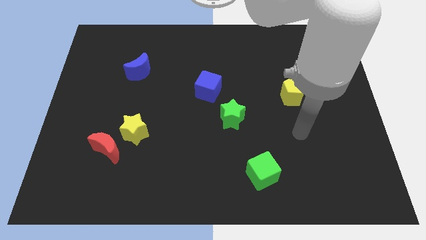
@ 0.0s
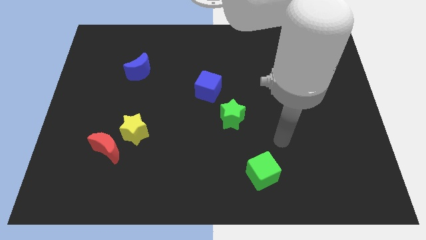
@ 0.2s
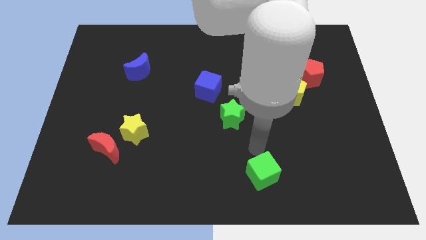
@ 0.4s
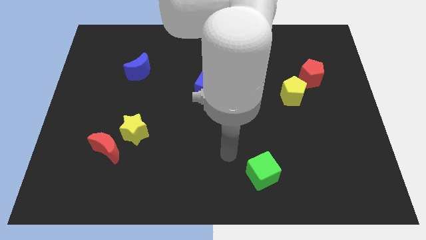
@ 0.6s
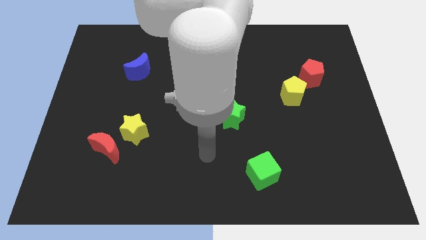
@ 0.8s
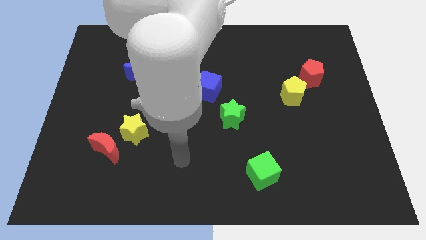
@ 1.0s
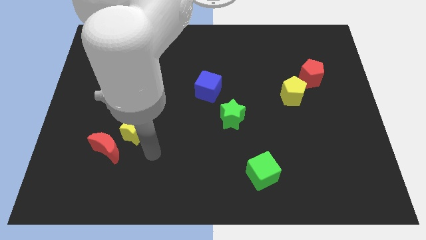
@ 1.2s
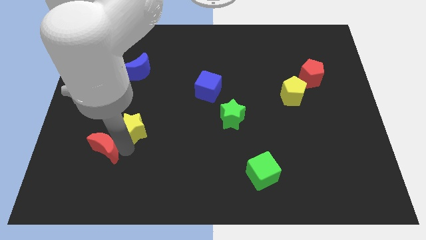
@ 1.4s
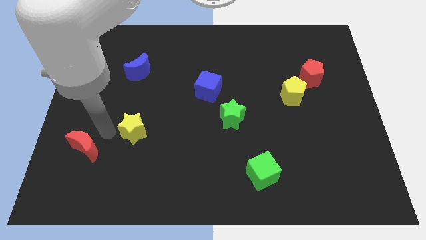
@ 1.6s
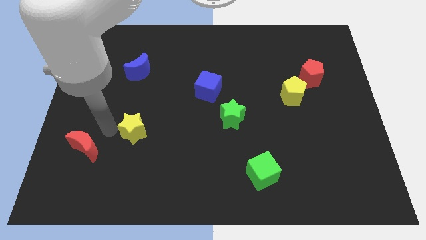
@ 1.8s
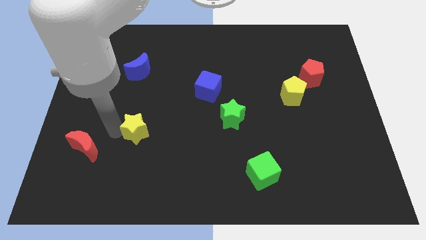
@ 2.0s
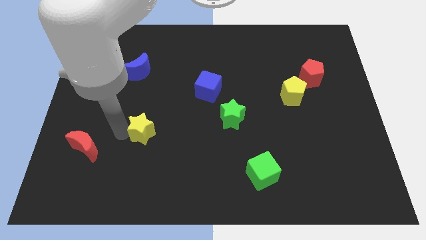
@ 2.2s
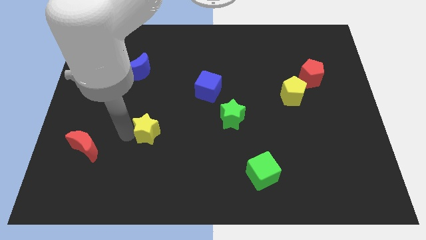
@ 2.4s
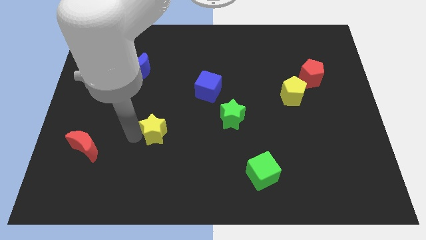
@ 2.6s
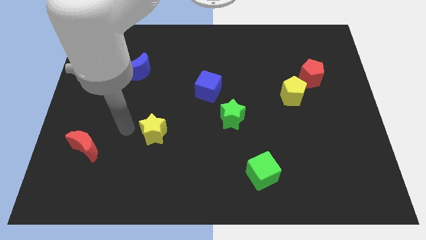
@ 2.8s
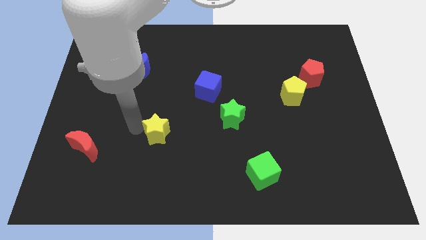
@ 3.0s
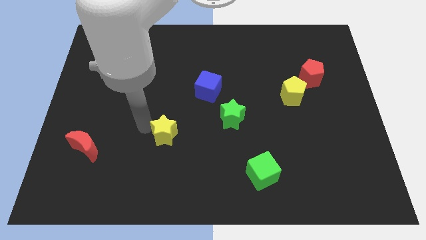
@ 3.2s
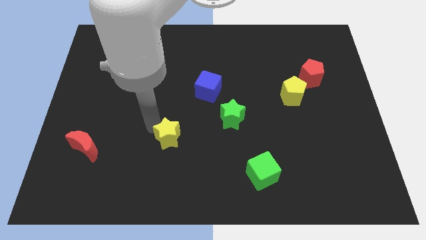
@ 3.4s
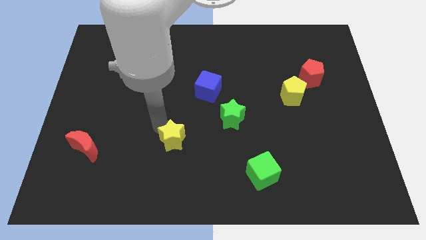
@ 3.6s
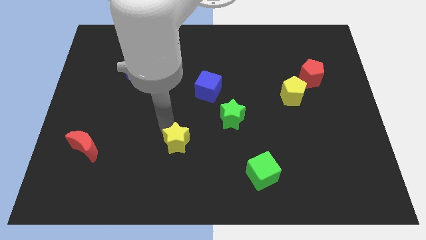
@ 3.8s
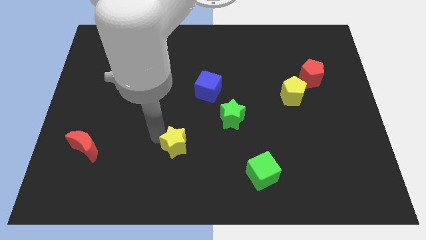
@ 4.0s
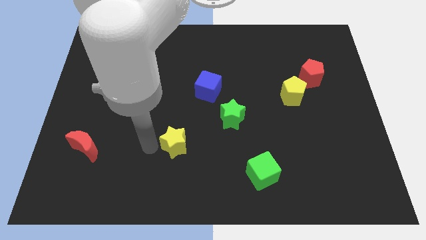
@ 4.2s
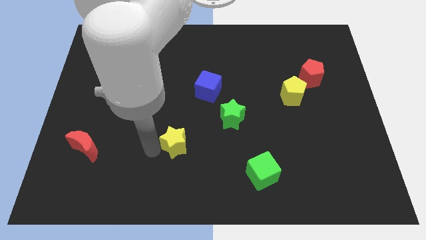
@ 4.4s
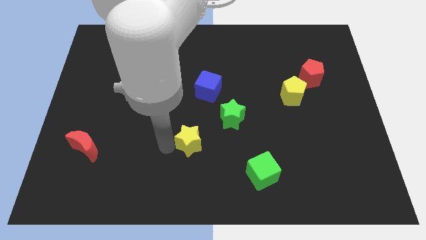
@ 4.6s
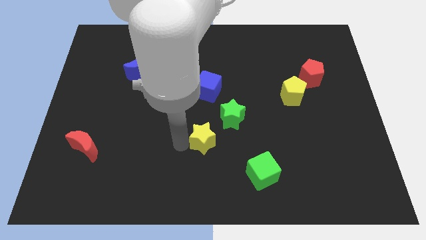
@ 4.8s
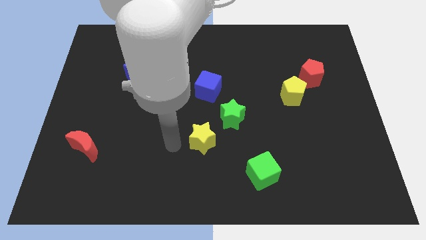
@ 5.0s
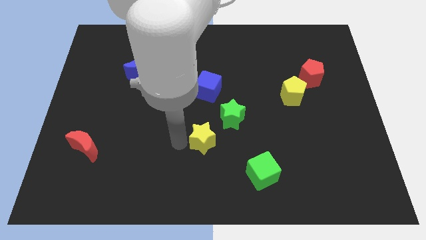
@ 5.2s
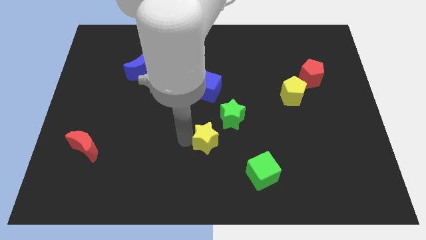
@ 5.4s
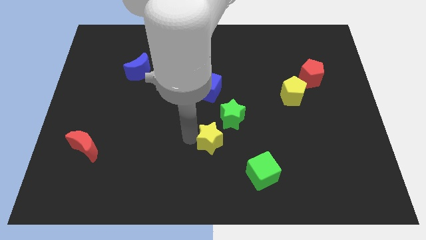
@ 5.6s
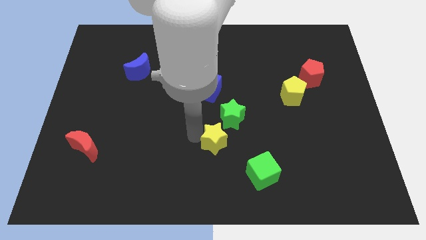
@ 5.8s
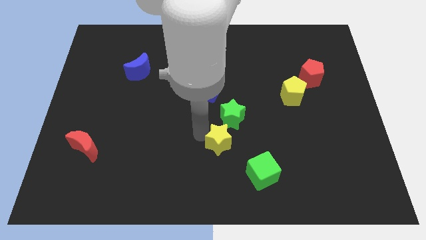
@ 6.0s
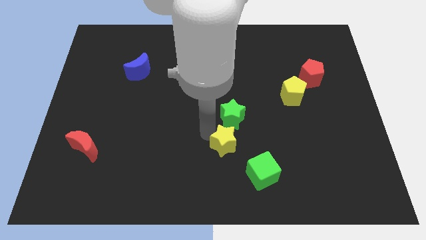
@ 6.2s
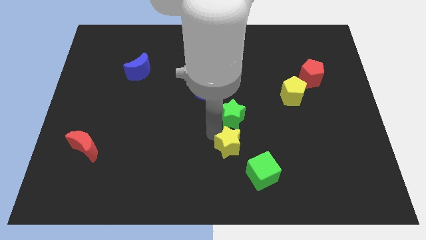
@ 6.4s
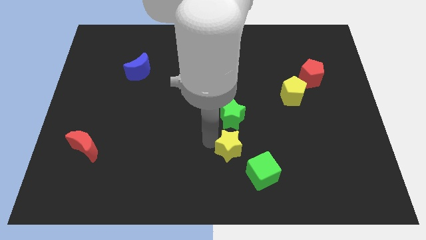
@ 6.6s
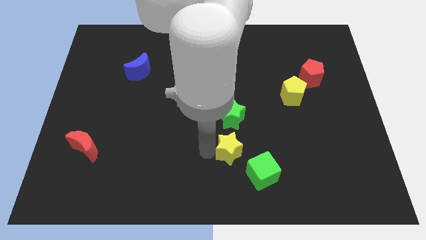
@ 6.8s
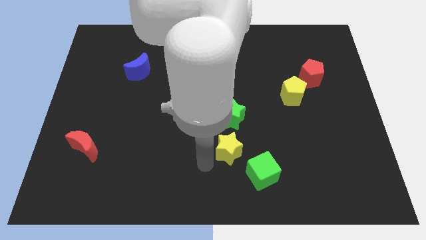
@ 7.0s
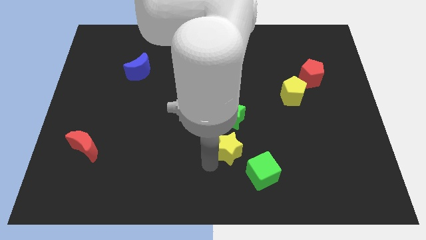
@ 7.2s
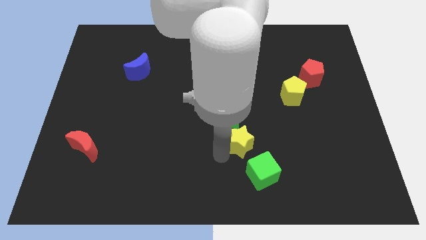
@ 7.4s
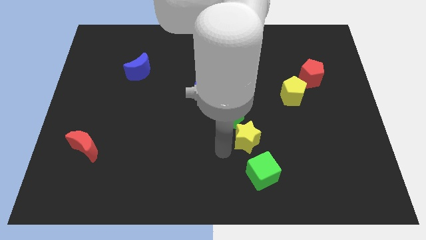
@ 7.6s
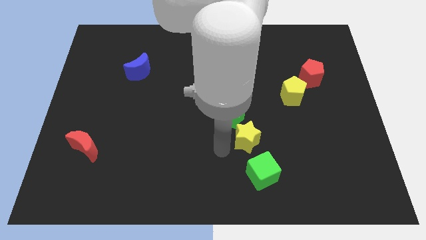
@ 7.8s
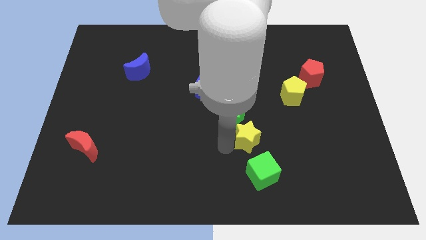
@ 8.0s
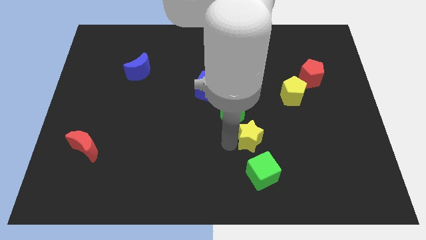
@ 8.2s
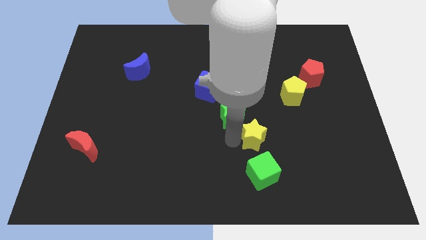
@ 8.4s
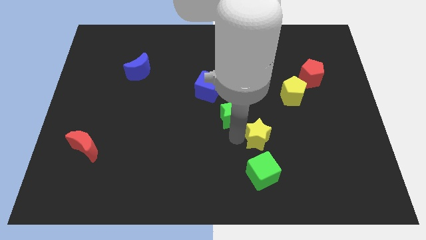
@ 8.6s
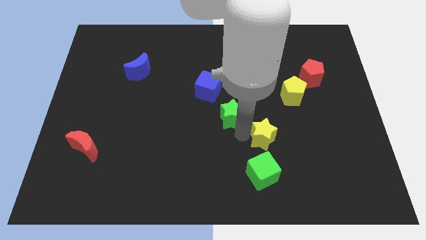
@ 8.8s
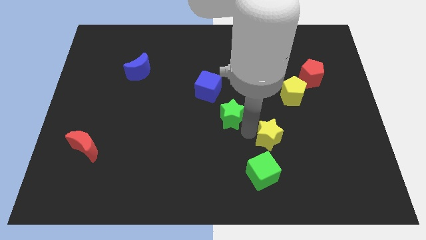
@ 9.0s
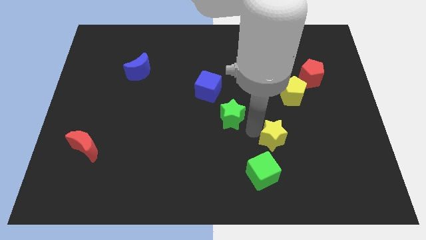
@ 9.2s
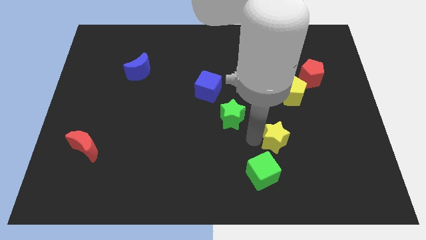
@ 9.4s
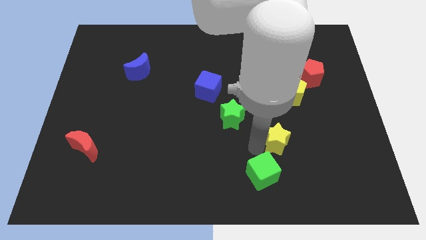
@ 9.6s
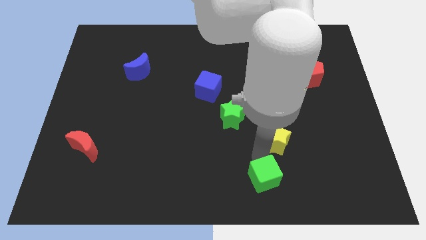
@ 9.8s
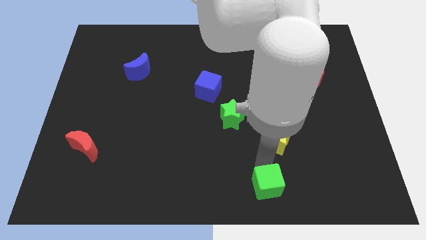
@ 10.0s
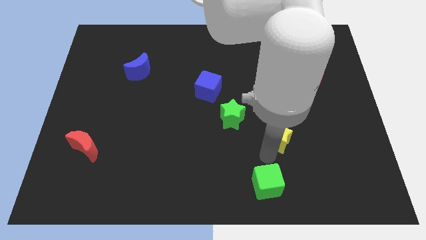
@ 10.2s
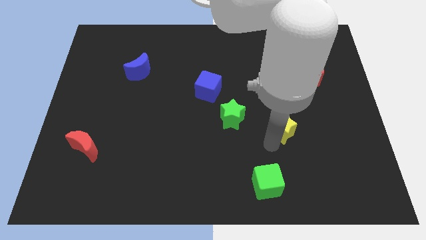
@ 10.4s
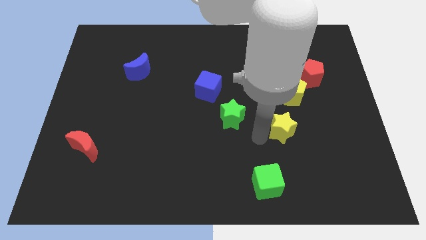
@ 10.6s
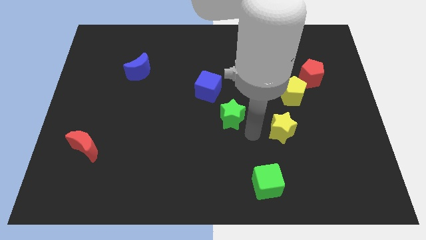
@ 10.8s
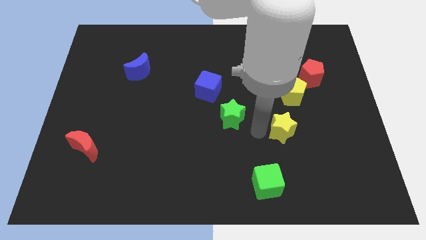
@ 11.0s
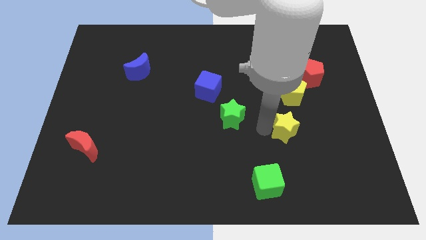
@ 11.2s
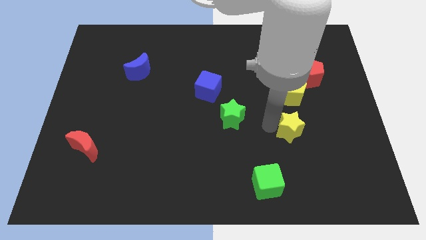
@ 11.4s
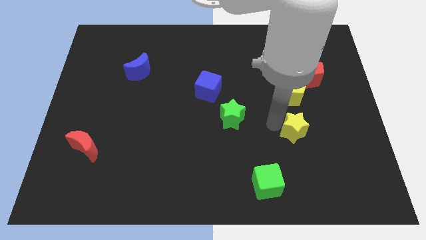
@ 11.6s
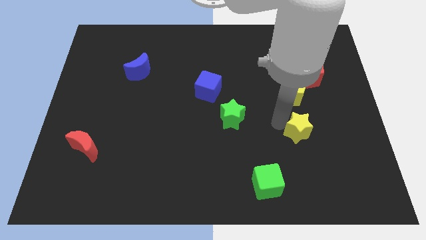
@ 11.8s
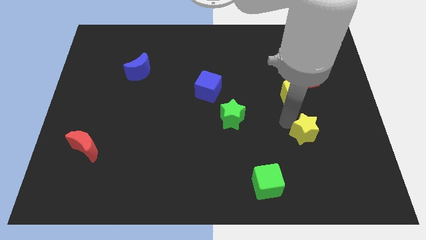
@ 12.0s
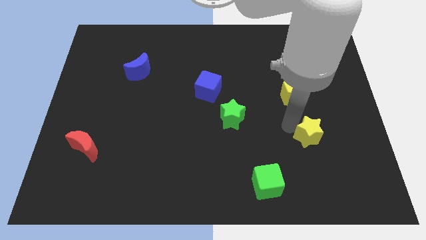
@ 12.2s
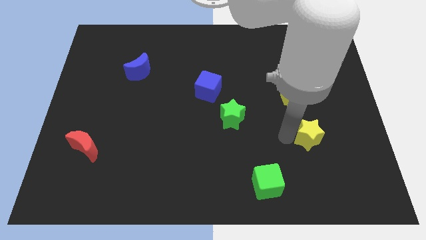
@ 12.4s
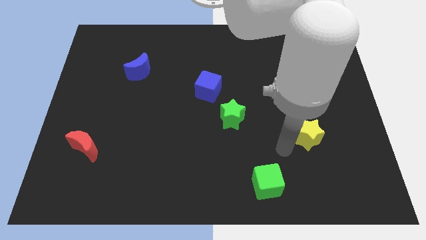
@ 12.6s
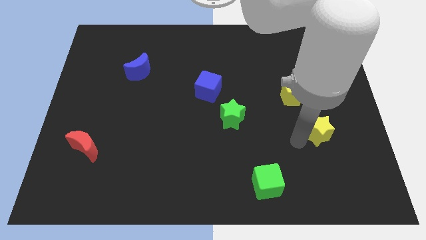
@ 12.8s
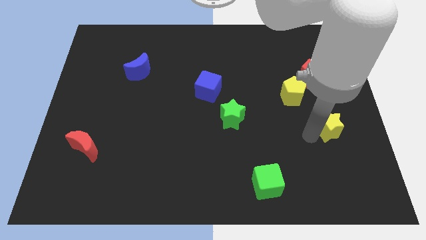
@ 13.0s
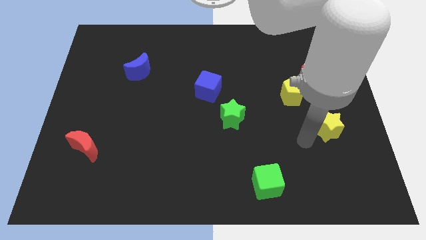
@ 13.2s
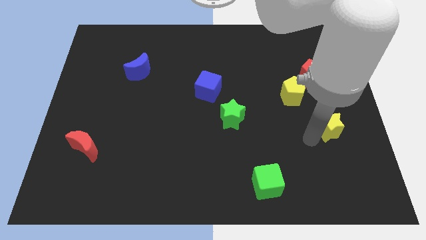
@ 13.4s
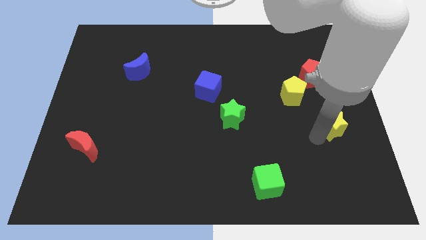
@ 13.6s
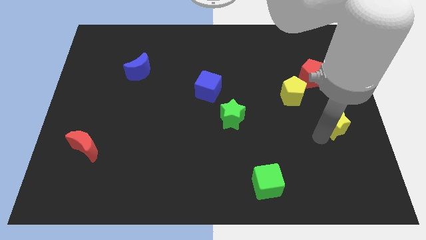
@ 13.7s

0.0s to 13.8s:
slide the yellow star to the right side

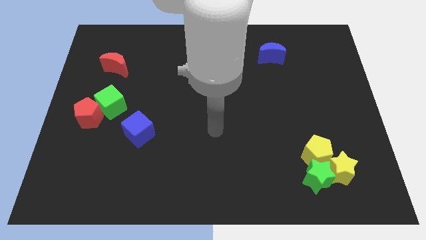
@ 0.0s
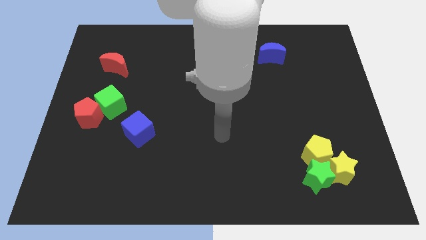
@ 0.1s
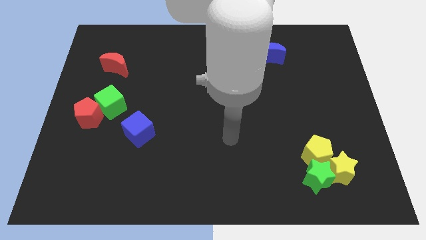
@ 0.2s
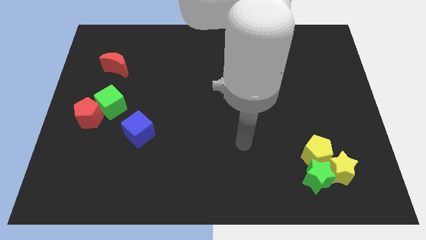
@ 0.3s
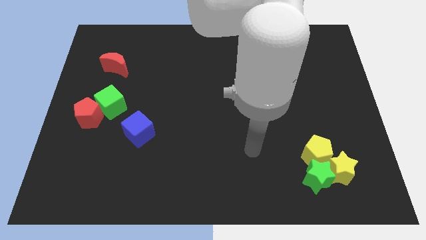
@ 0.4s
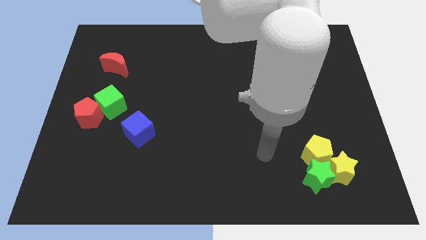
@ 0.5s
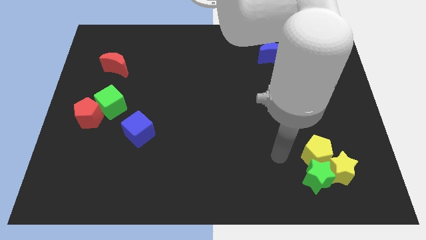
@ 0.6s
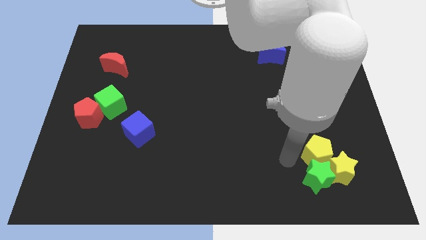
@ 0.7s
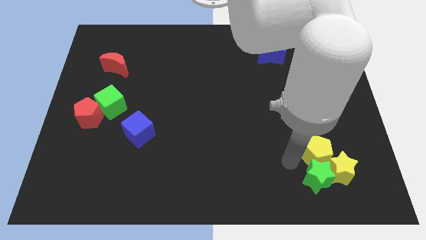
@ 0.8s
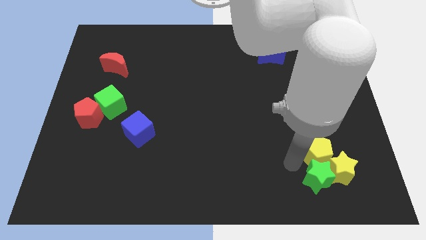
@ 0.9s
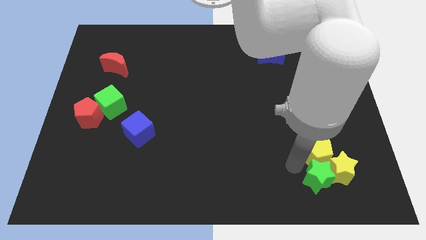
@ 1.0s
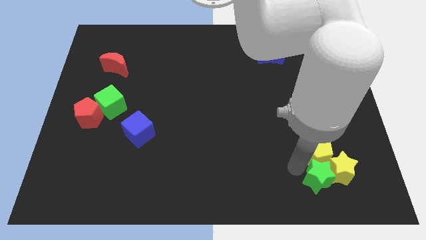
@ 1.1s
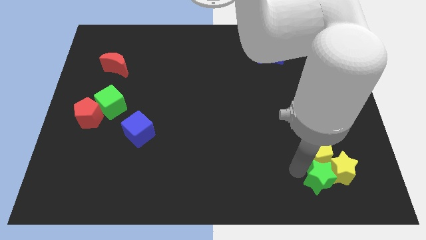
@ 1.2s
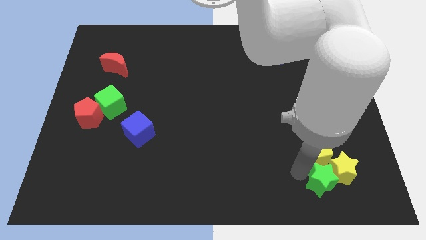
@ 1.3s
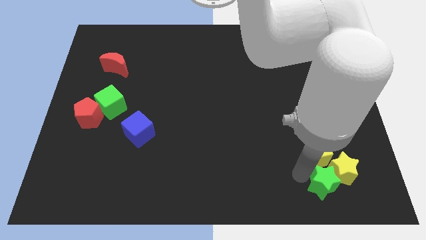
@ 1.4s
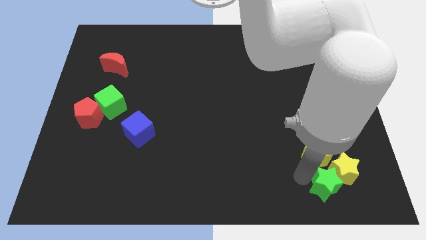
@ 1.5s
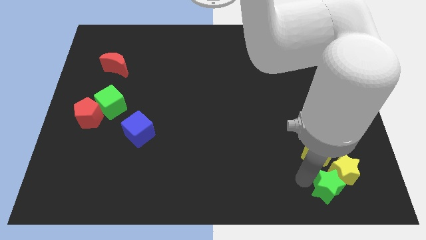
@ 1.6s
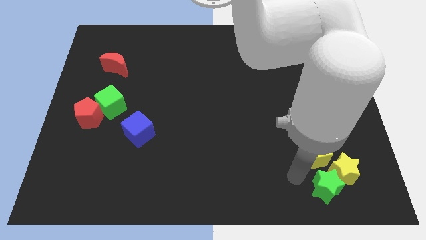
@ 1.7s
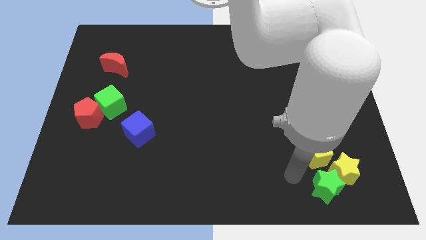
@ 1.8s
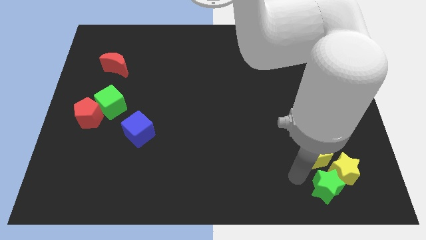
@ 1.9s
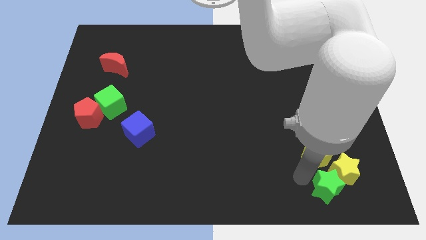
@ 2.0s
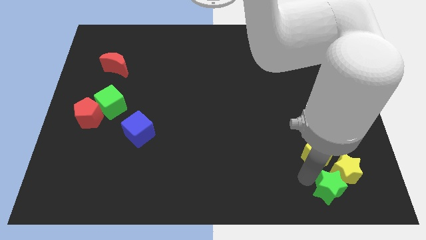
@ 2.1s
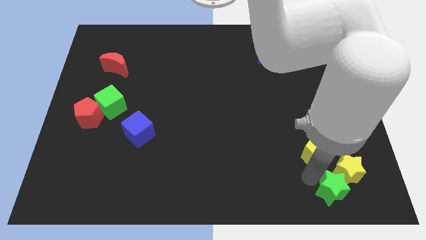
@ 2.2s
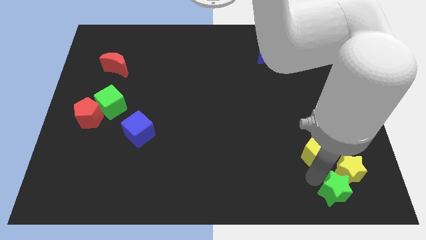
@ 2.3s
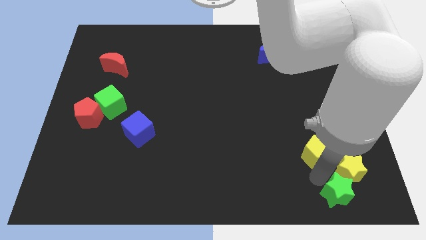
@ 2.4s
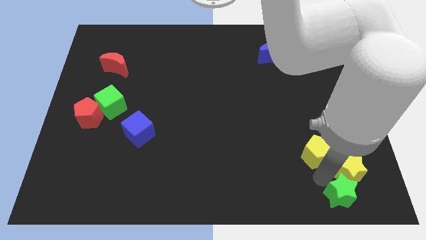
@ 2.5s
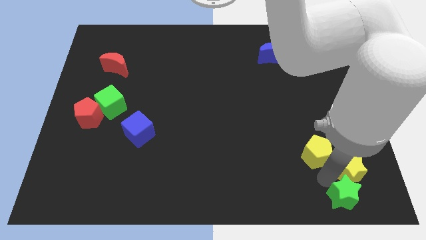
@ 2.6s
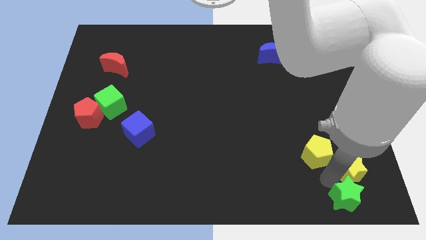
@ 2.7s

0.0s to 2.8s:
push the green star to the bottom right of the board
